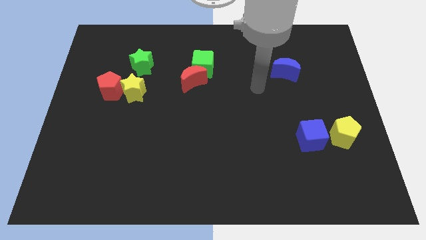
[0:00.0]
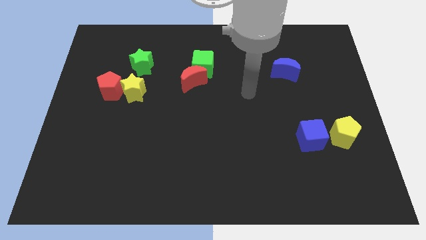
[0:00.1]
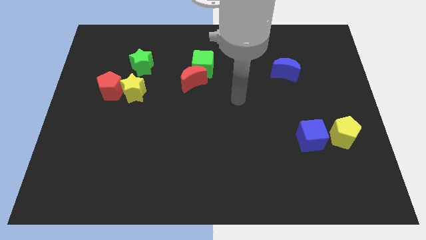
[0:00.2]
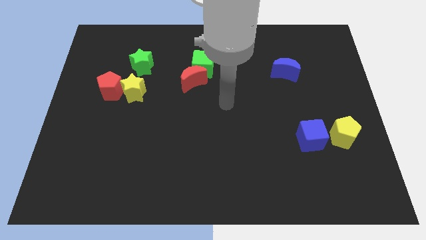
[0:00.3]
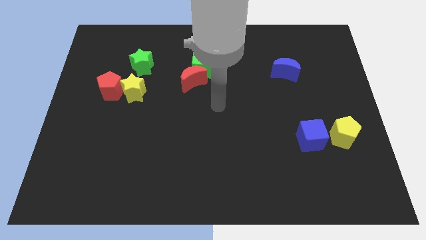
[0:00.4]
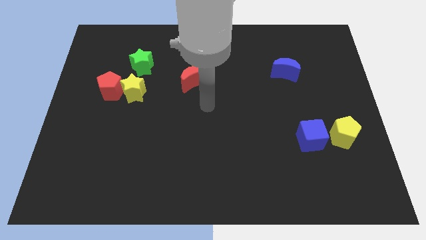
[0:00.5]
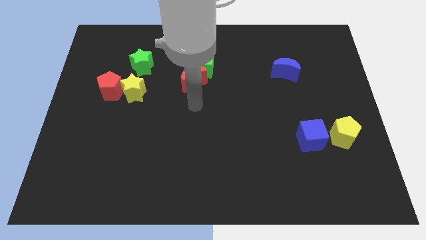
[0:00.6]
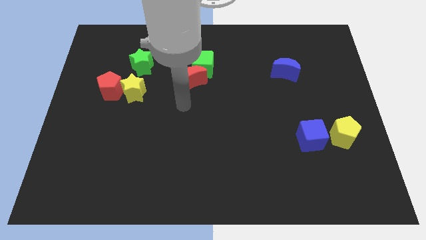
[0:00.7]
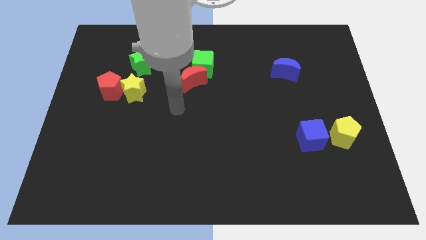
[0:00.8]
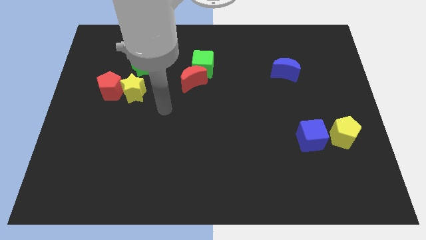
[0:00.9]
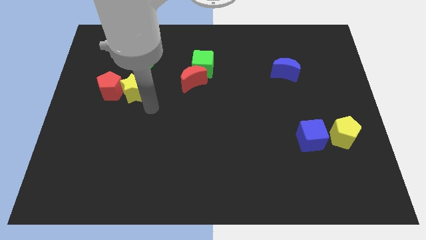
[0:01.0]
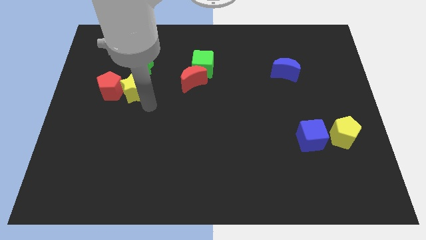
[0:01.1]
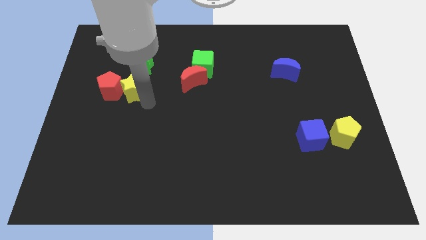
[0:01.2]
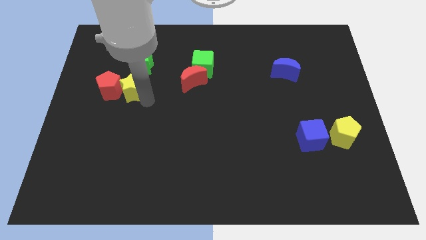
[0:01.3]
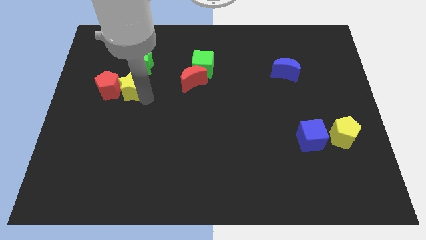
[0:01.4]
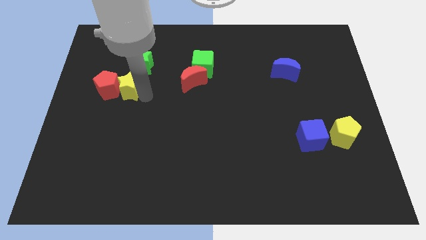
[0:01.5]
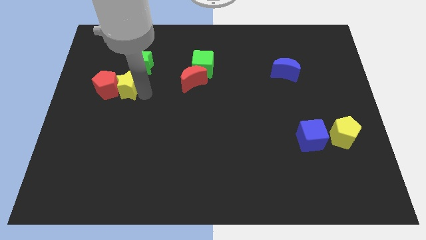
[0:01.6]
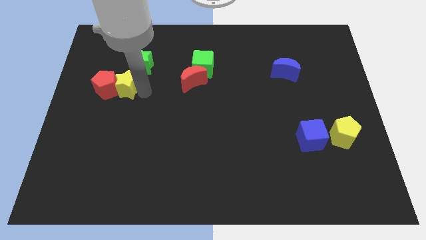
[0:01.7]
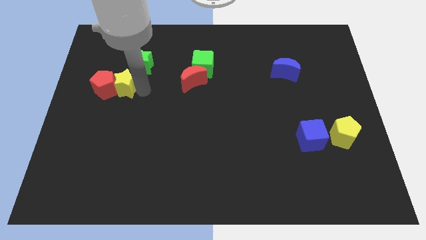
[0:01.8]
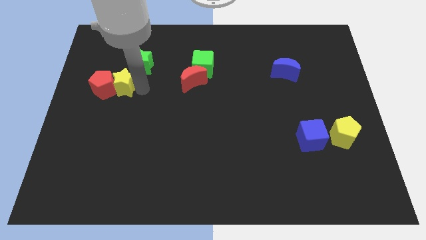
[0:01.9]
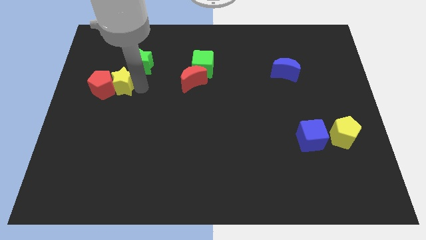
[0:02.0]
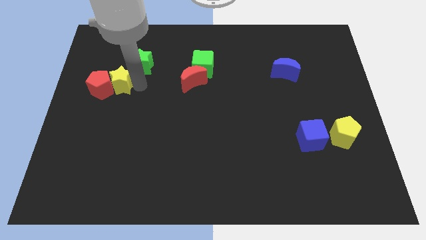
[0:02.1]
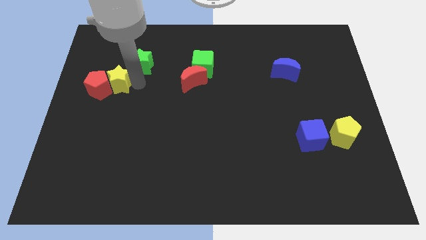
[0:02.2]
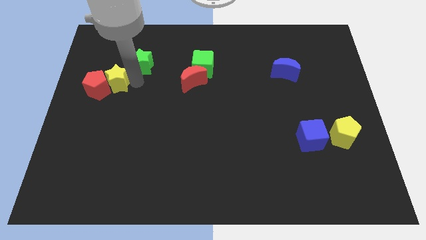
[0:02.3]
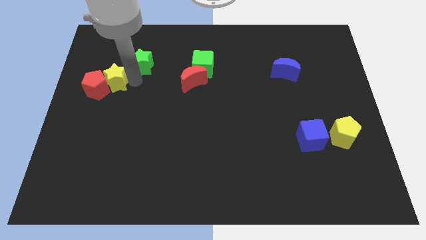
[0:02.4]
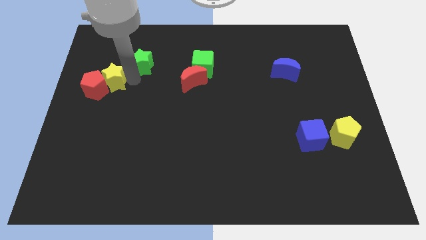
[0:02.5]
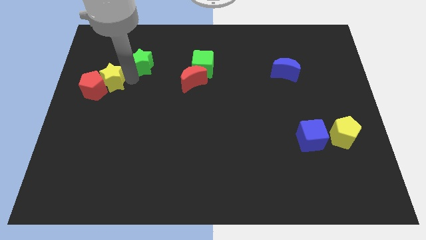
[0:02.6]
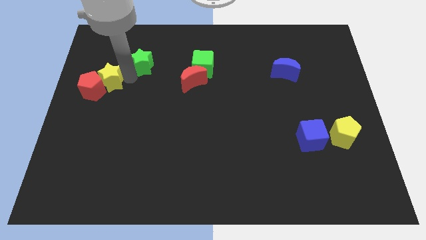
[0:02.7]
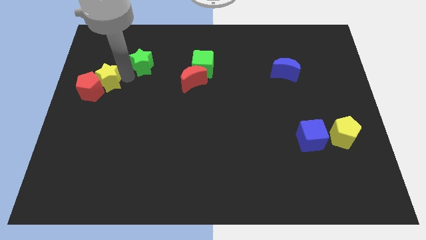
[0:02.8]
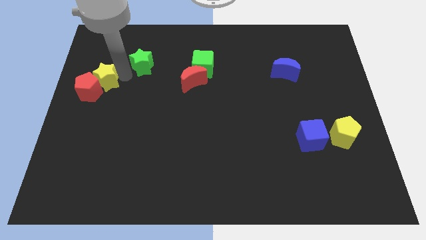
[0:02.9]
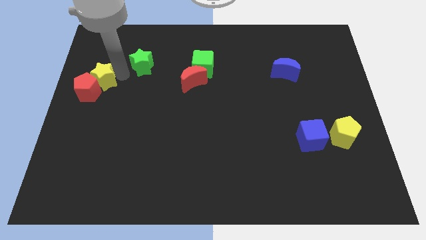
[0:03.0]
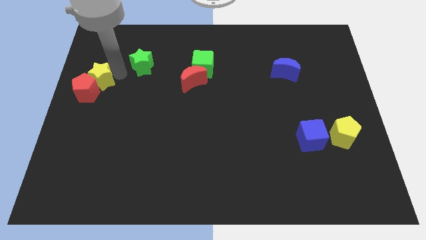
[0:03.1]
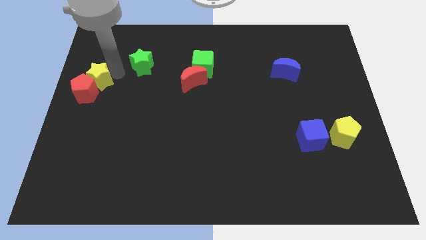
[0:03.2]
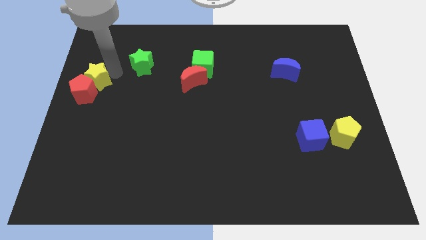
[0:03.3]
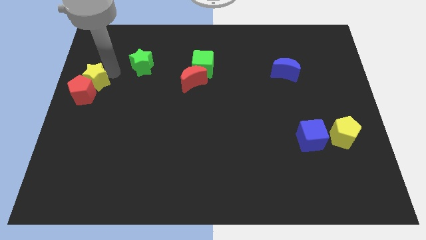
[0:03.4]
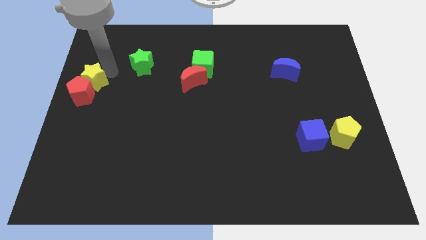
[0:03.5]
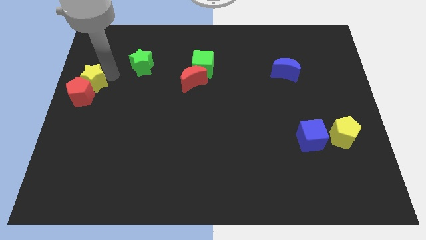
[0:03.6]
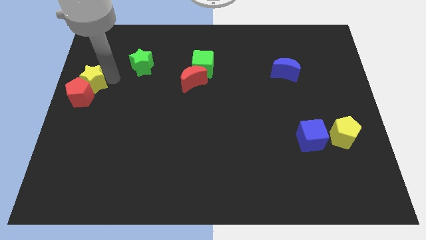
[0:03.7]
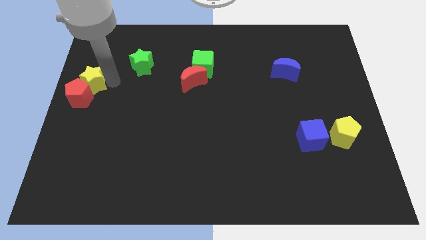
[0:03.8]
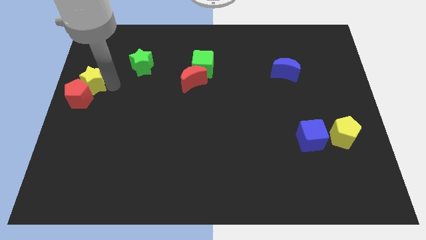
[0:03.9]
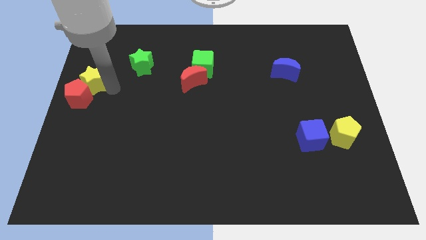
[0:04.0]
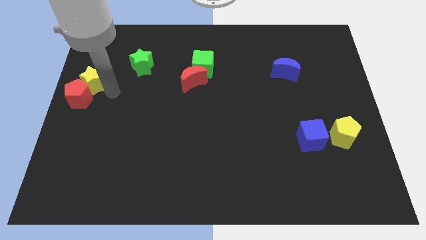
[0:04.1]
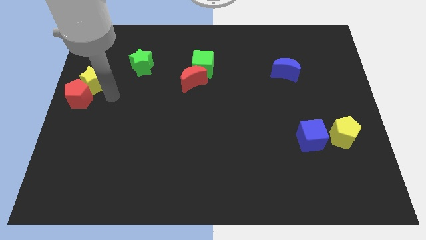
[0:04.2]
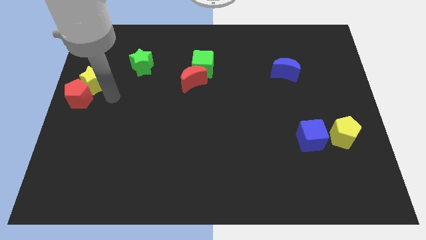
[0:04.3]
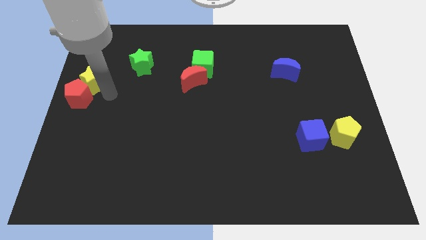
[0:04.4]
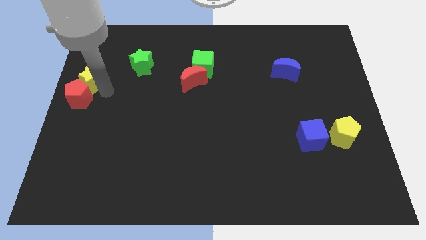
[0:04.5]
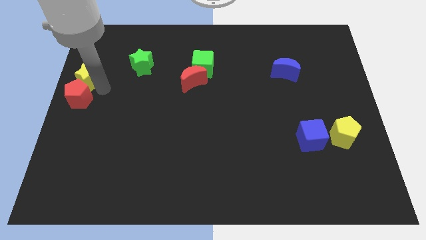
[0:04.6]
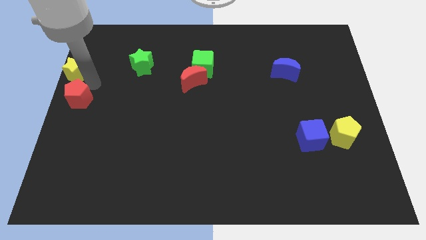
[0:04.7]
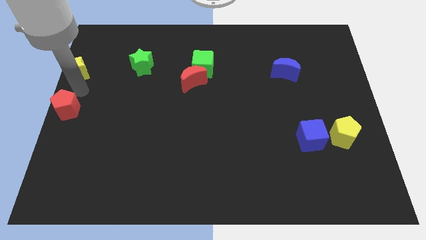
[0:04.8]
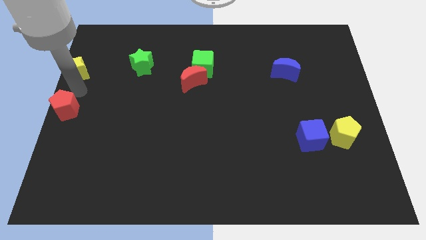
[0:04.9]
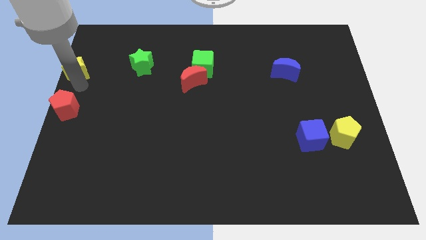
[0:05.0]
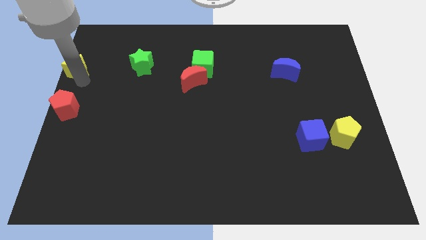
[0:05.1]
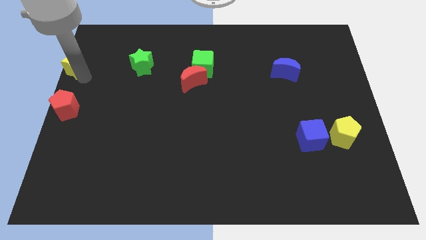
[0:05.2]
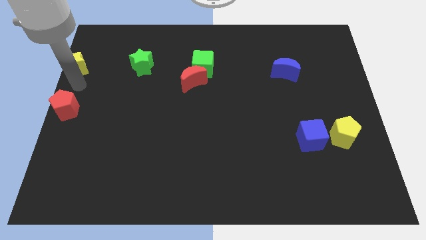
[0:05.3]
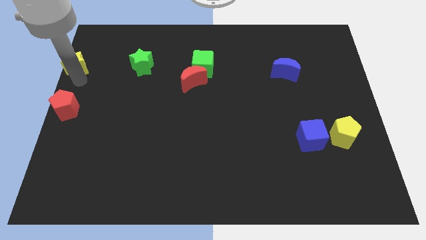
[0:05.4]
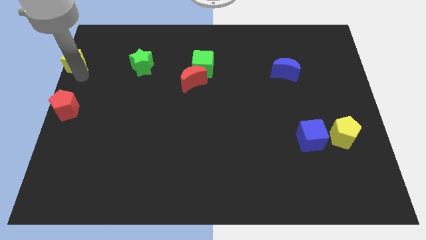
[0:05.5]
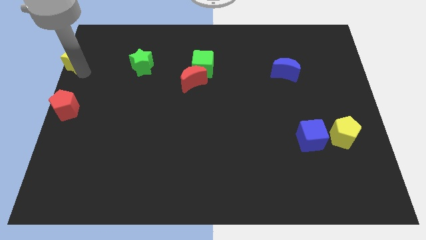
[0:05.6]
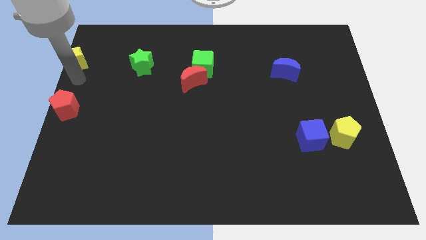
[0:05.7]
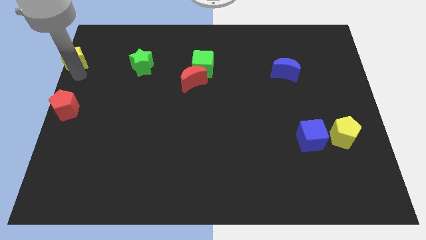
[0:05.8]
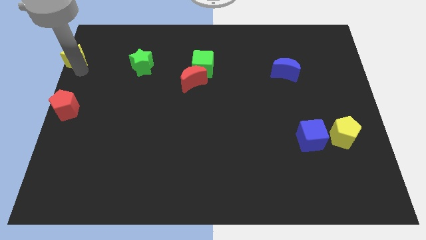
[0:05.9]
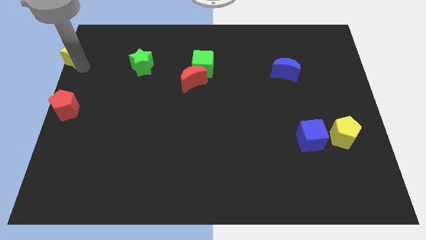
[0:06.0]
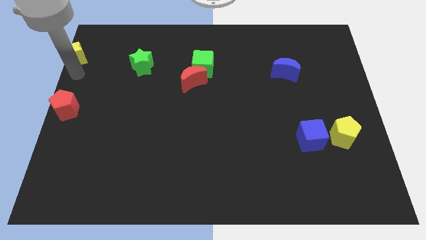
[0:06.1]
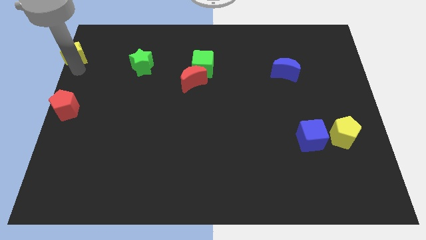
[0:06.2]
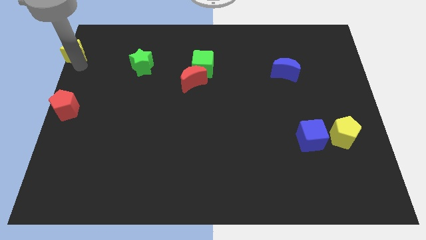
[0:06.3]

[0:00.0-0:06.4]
move the yellow star to the upper left corner

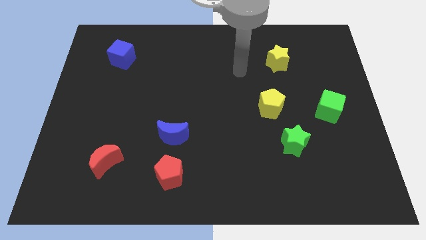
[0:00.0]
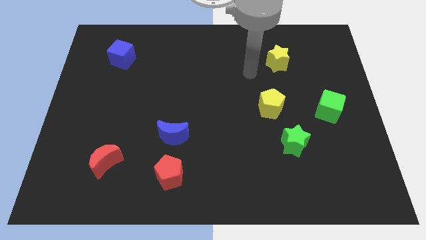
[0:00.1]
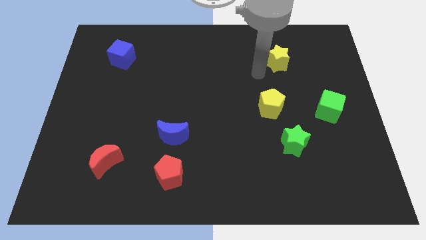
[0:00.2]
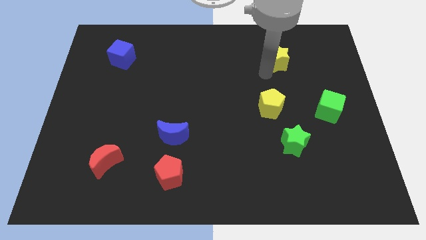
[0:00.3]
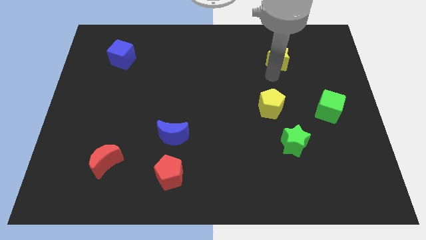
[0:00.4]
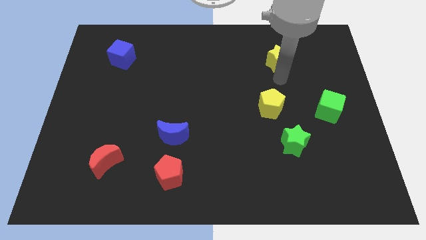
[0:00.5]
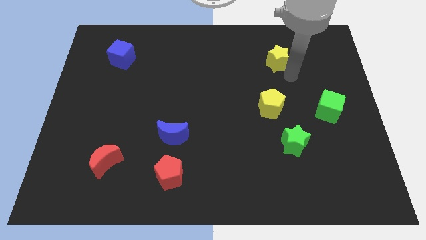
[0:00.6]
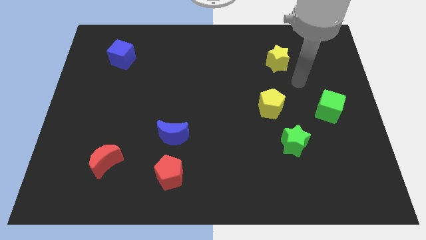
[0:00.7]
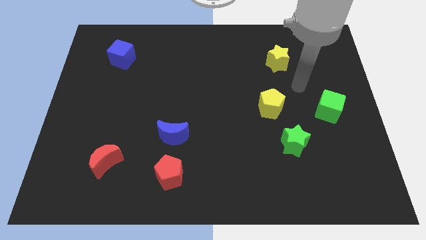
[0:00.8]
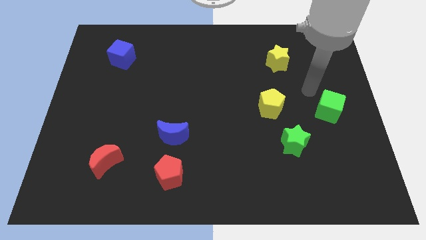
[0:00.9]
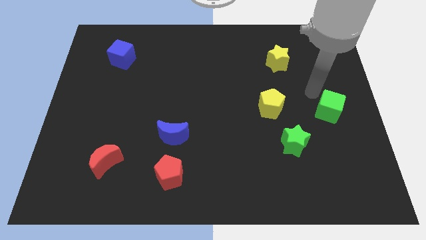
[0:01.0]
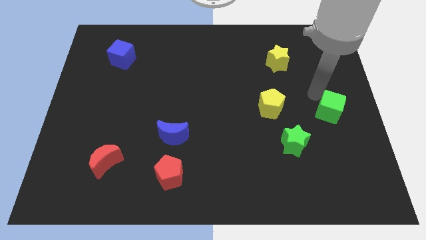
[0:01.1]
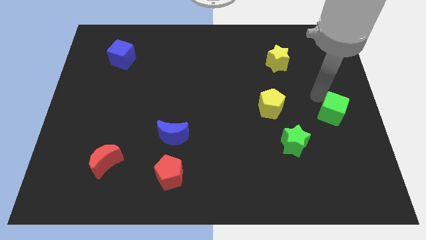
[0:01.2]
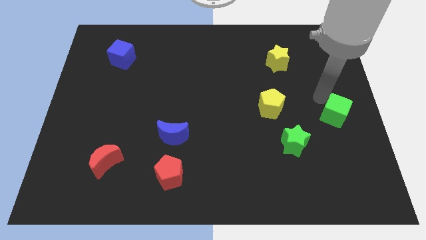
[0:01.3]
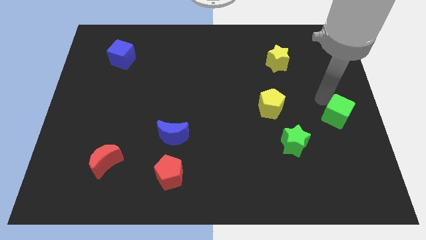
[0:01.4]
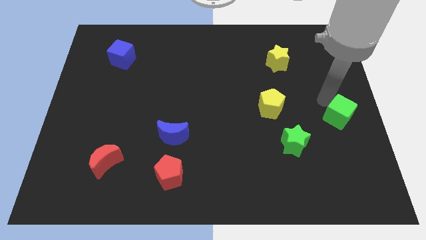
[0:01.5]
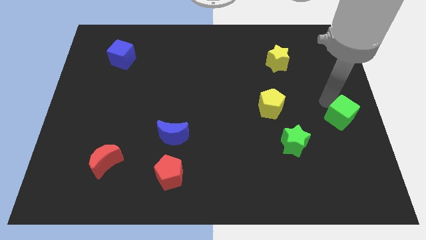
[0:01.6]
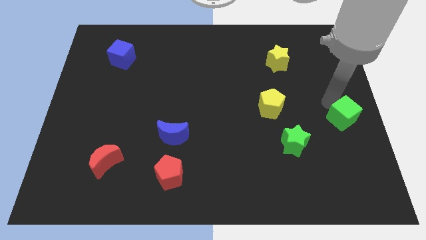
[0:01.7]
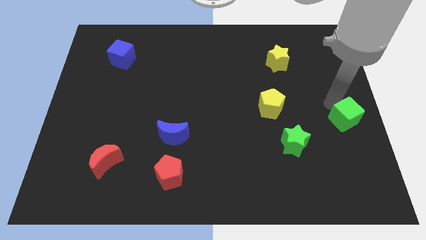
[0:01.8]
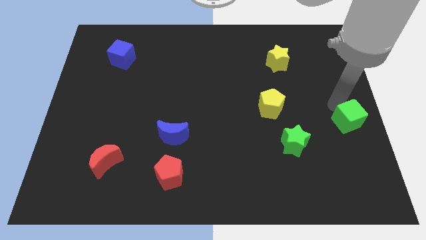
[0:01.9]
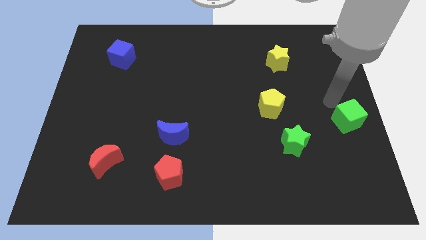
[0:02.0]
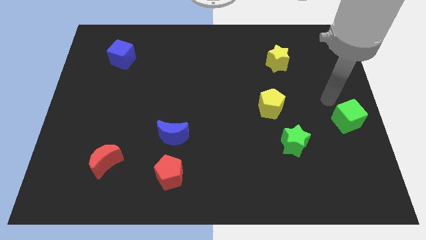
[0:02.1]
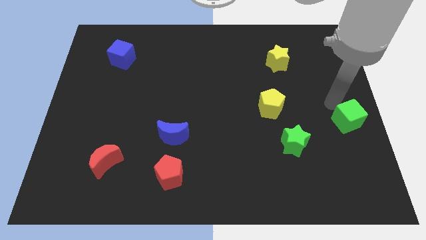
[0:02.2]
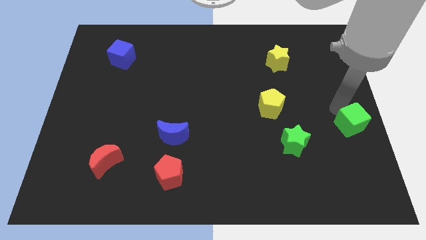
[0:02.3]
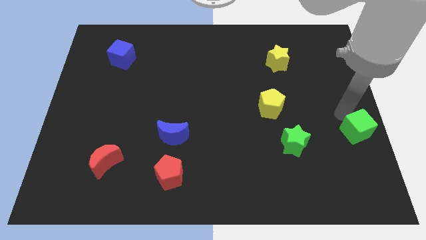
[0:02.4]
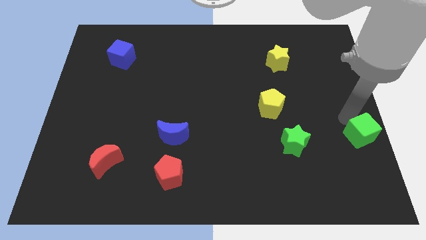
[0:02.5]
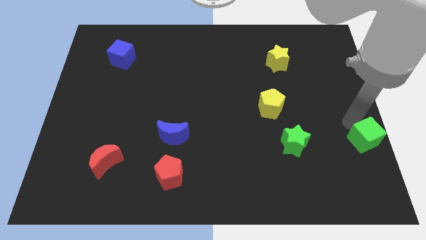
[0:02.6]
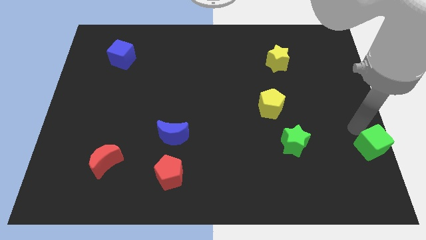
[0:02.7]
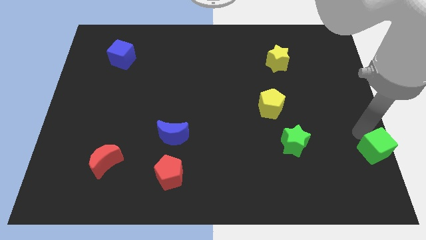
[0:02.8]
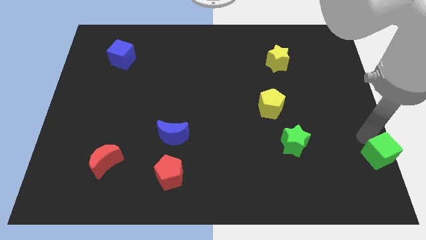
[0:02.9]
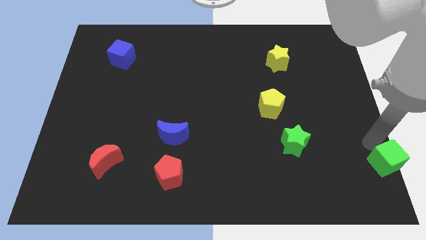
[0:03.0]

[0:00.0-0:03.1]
push the green cube to the bottom right of the board
